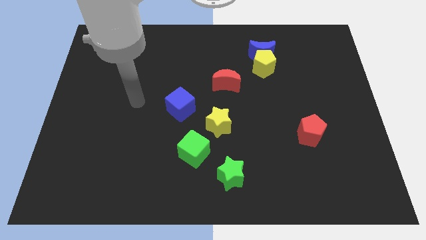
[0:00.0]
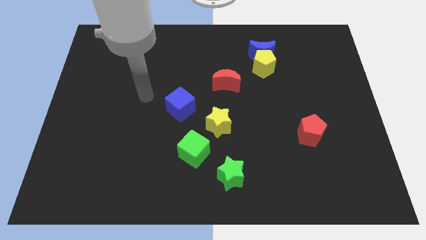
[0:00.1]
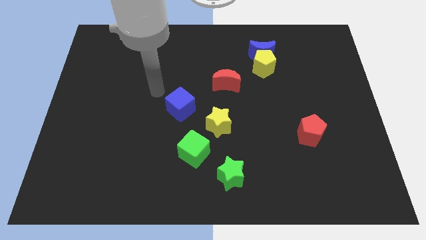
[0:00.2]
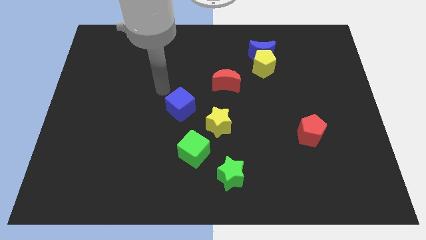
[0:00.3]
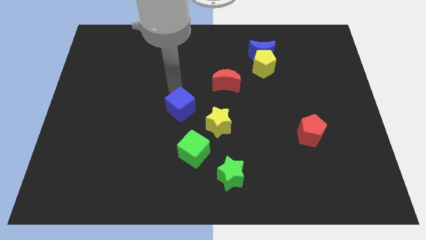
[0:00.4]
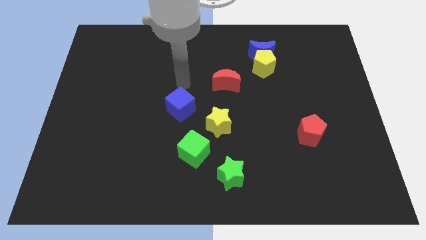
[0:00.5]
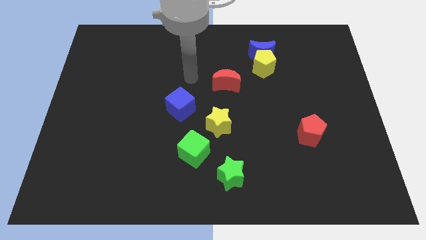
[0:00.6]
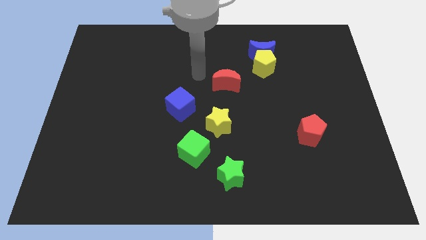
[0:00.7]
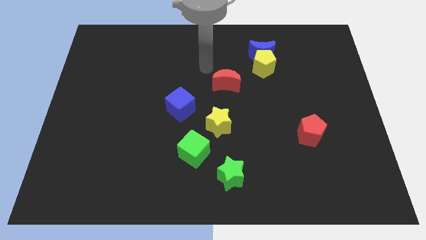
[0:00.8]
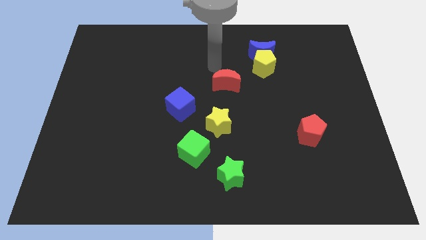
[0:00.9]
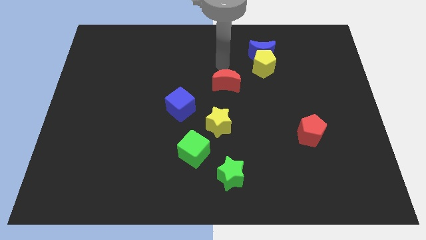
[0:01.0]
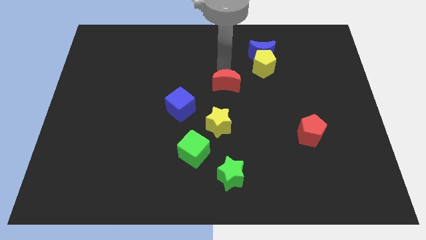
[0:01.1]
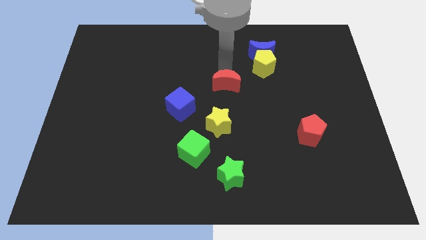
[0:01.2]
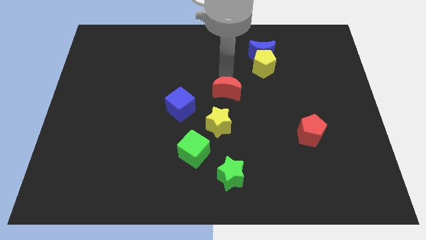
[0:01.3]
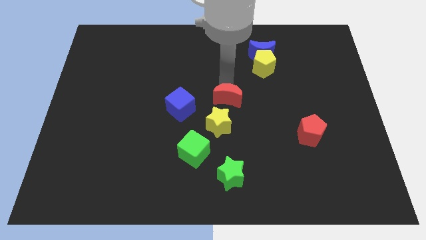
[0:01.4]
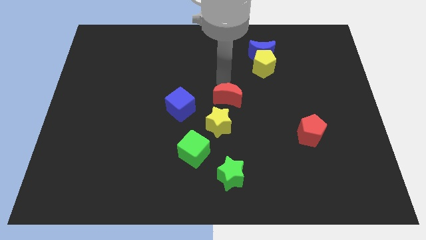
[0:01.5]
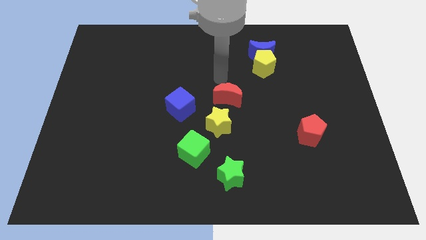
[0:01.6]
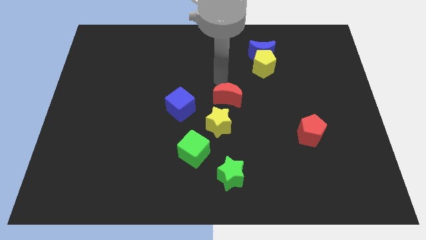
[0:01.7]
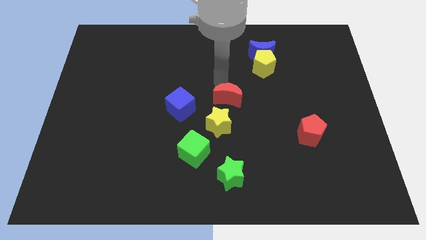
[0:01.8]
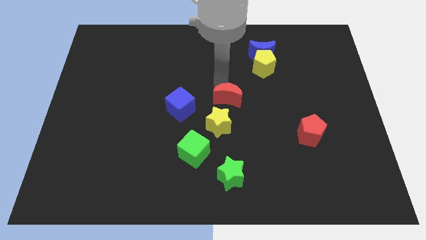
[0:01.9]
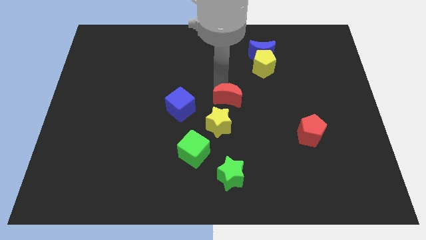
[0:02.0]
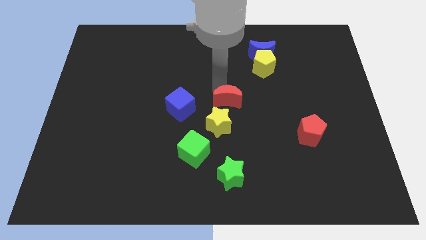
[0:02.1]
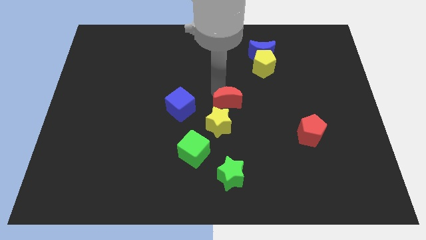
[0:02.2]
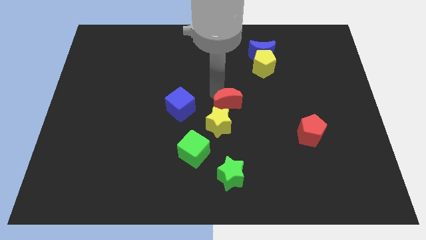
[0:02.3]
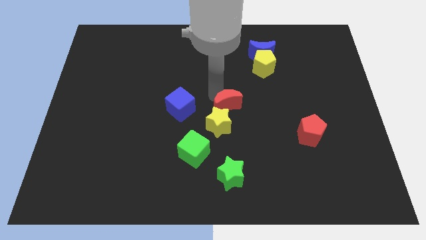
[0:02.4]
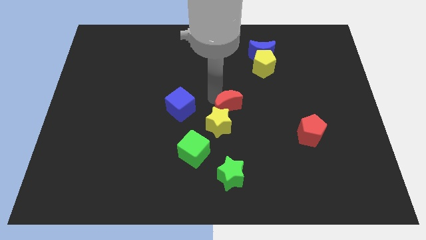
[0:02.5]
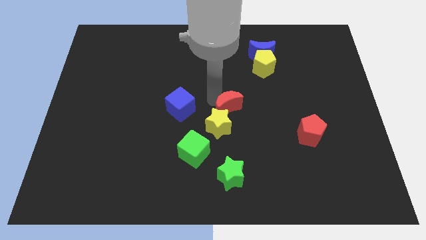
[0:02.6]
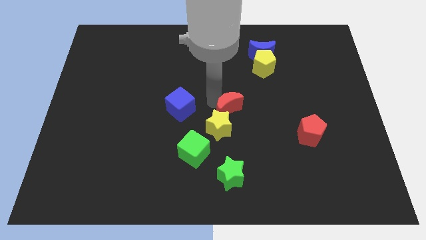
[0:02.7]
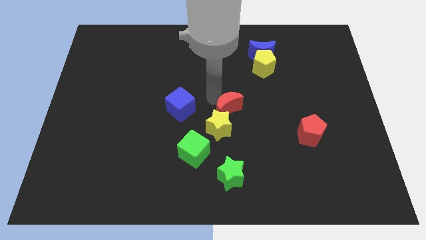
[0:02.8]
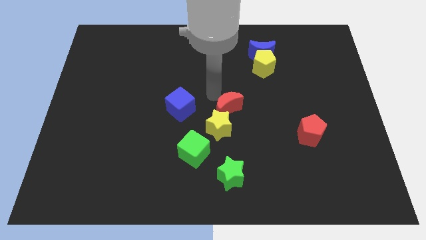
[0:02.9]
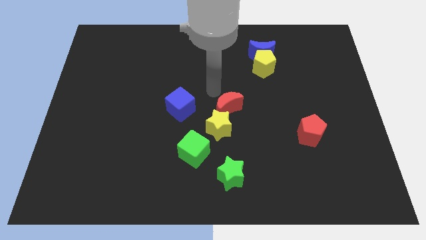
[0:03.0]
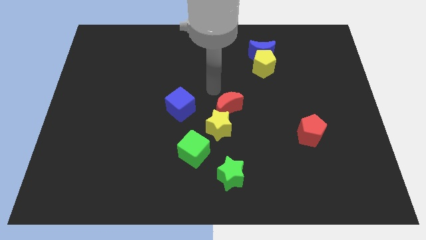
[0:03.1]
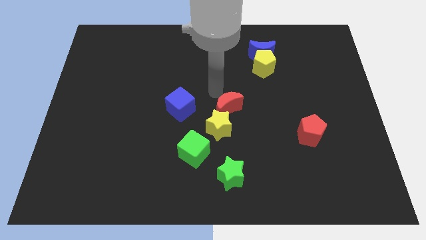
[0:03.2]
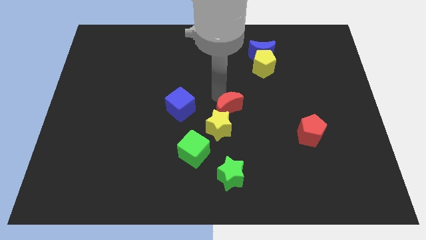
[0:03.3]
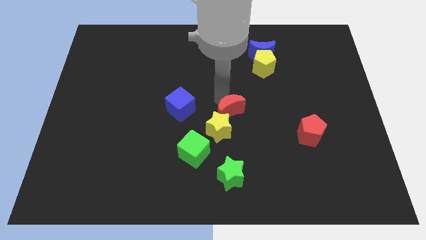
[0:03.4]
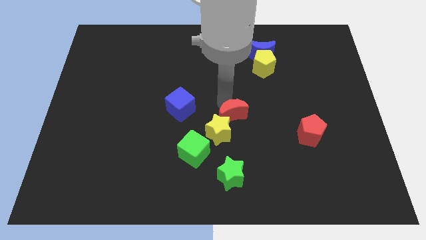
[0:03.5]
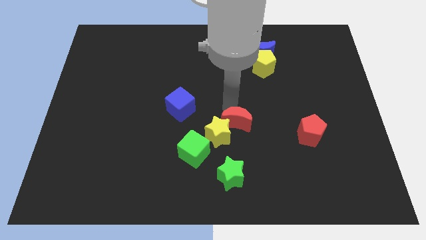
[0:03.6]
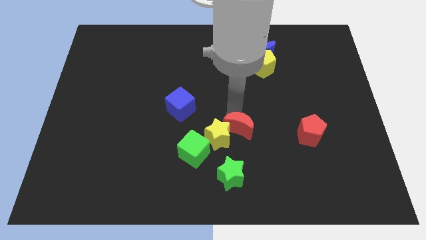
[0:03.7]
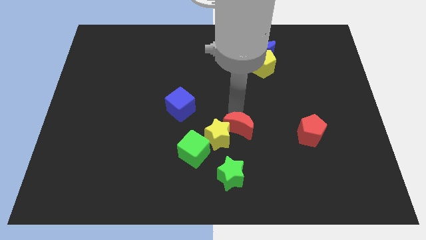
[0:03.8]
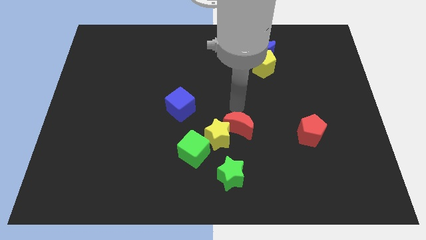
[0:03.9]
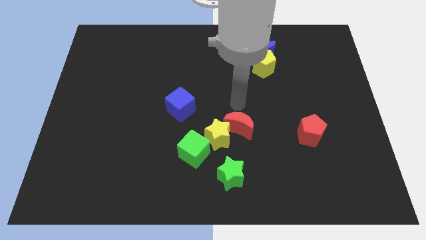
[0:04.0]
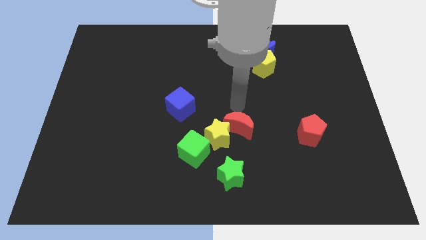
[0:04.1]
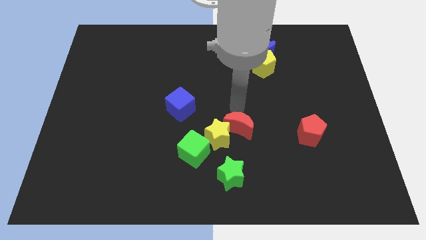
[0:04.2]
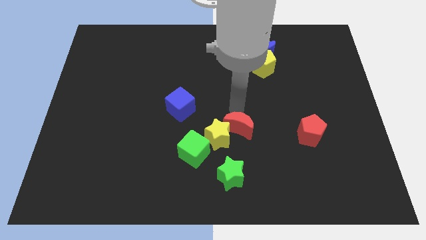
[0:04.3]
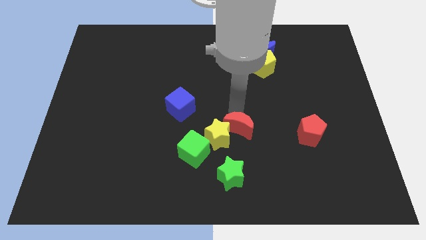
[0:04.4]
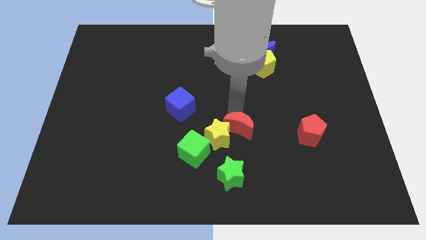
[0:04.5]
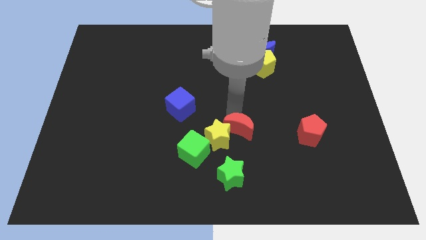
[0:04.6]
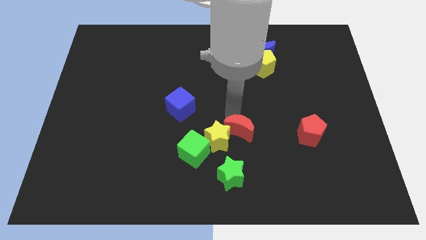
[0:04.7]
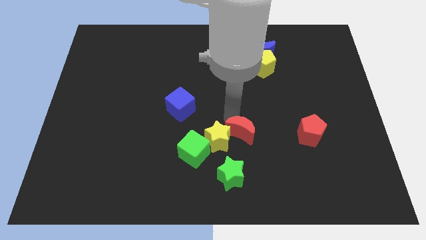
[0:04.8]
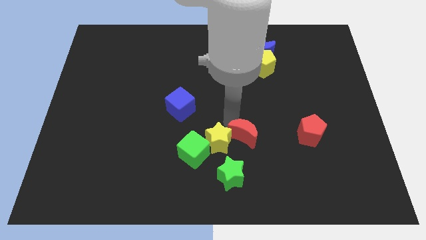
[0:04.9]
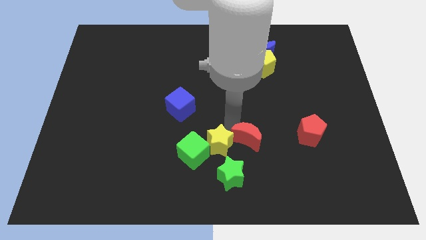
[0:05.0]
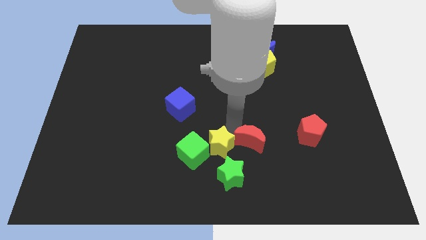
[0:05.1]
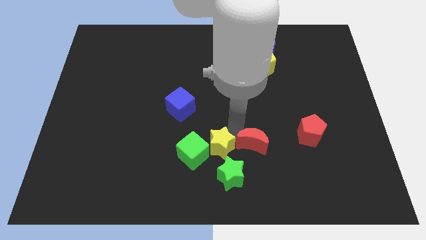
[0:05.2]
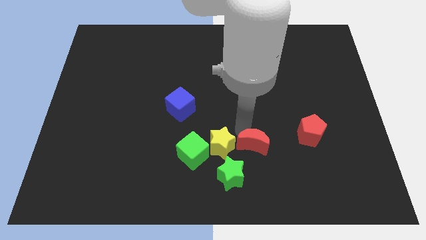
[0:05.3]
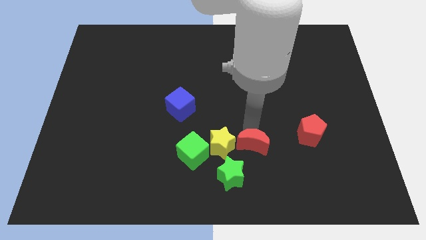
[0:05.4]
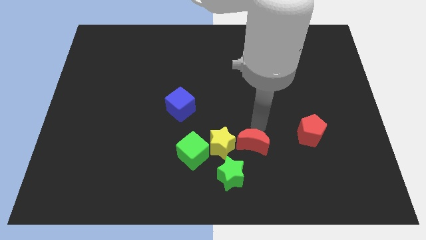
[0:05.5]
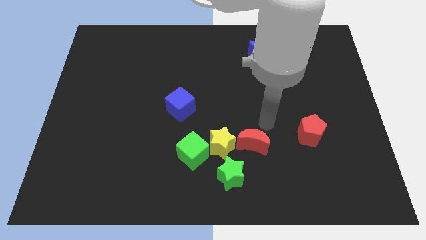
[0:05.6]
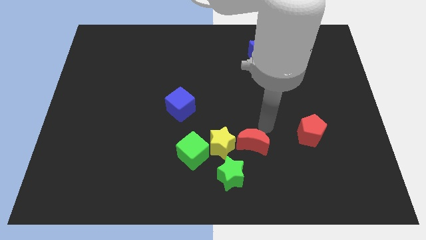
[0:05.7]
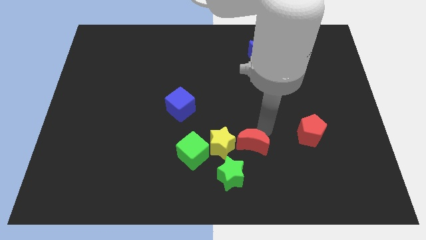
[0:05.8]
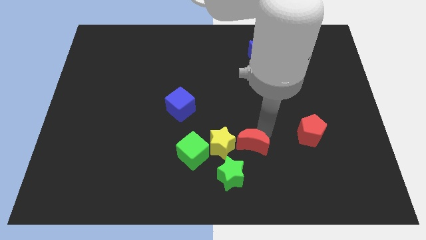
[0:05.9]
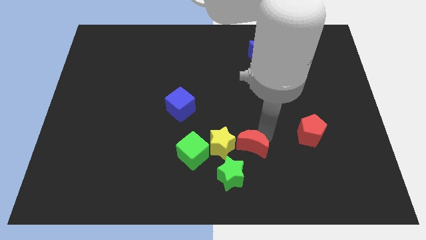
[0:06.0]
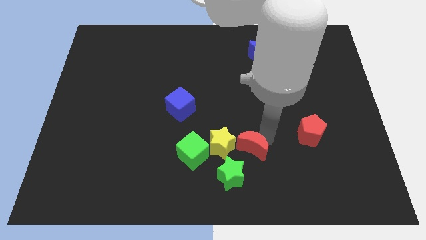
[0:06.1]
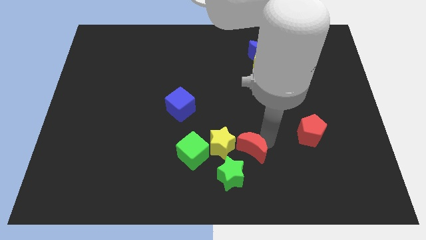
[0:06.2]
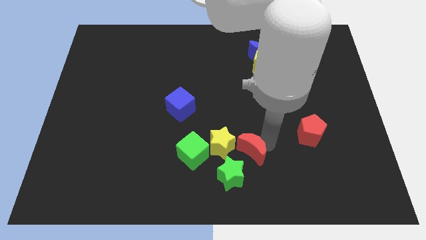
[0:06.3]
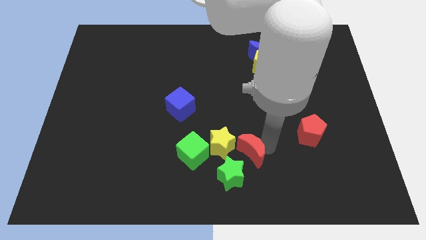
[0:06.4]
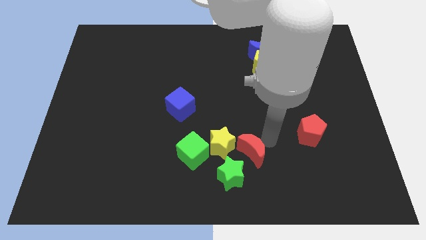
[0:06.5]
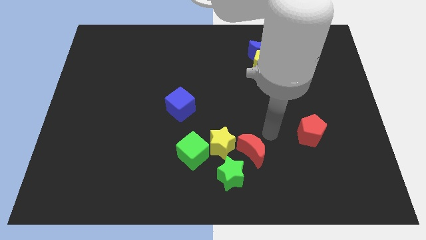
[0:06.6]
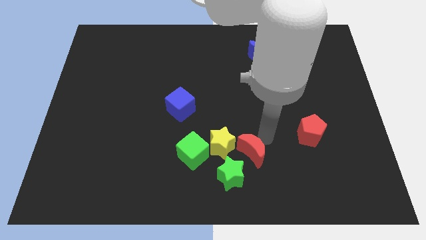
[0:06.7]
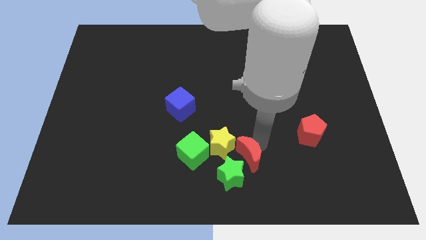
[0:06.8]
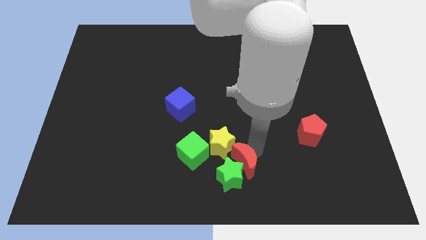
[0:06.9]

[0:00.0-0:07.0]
push the red moon close to the green star
